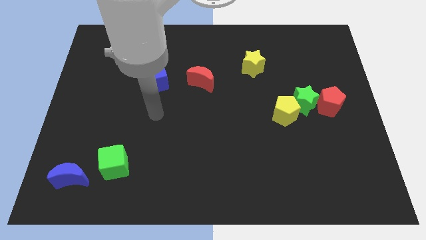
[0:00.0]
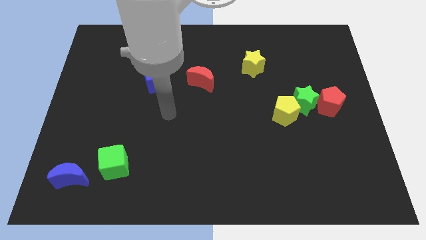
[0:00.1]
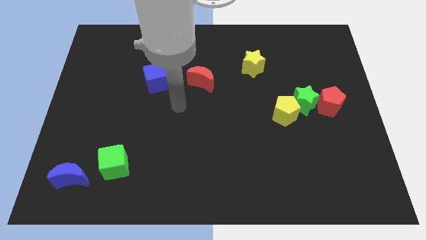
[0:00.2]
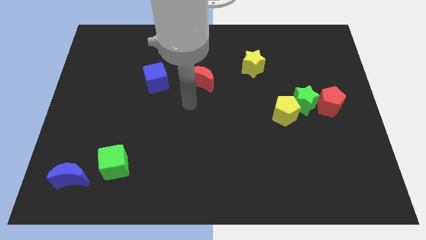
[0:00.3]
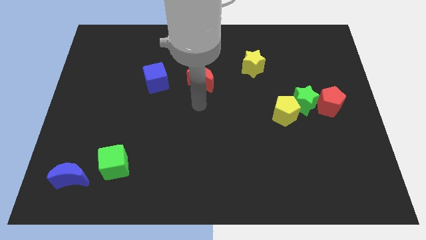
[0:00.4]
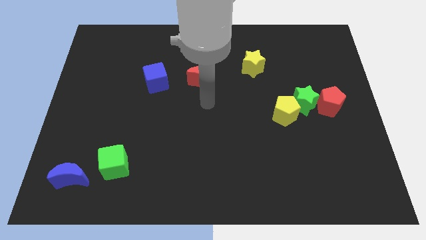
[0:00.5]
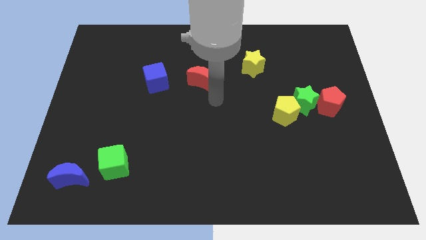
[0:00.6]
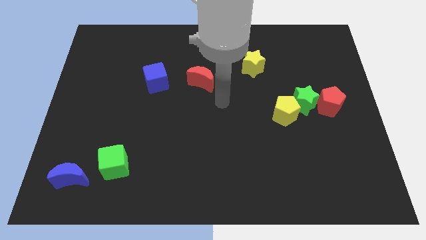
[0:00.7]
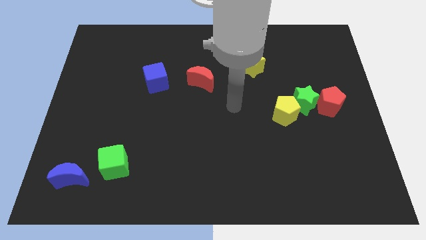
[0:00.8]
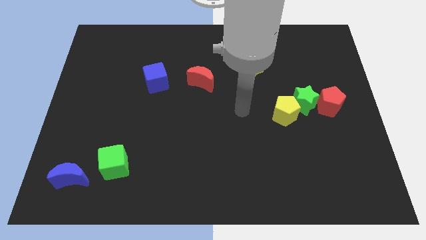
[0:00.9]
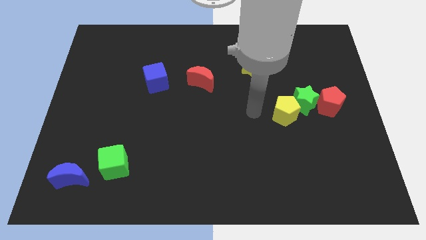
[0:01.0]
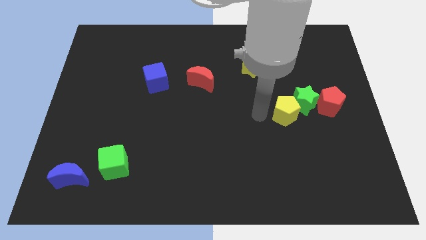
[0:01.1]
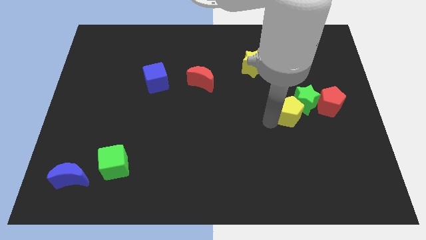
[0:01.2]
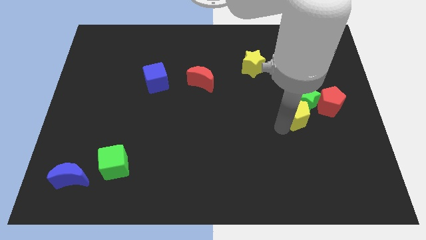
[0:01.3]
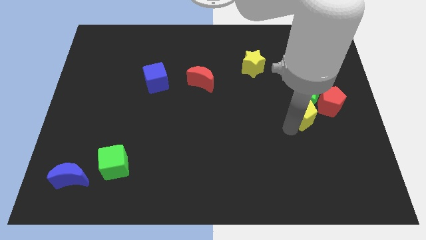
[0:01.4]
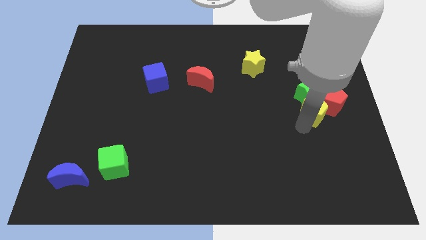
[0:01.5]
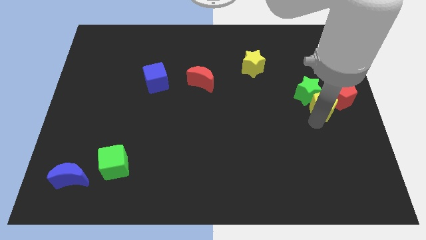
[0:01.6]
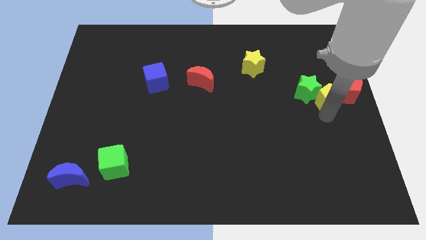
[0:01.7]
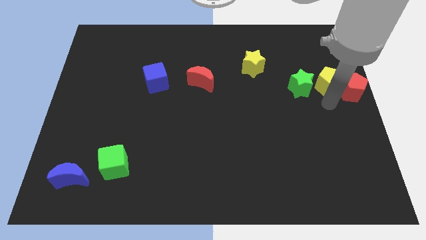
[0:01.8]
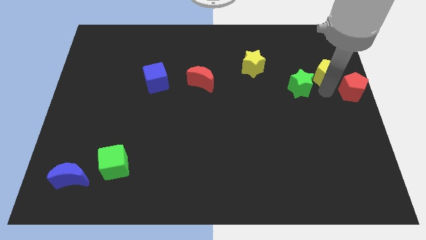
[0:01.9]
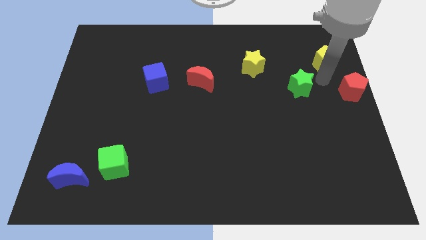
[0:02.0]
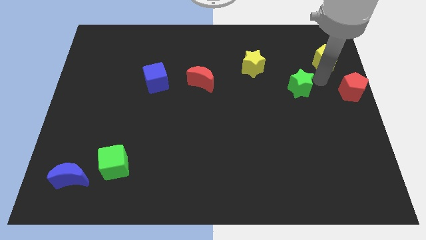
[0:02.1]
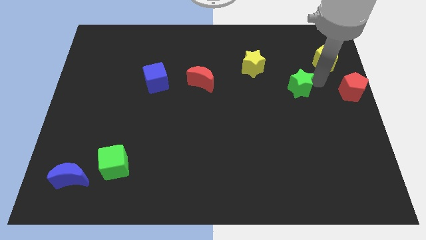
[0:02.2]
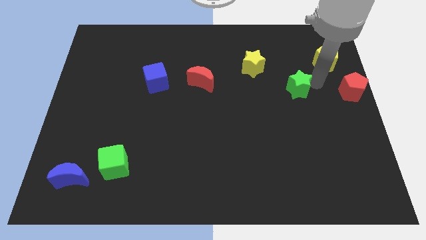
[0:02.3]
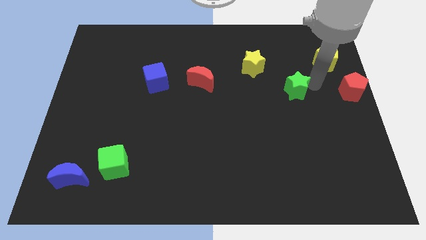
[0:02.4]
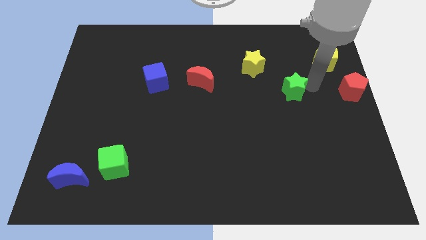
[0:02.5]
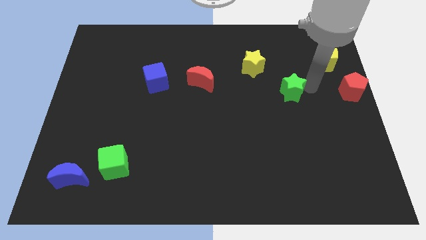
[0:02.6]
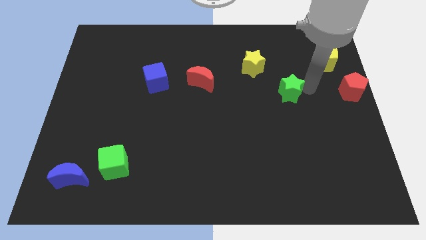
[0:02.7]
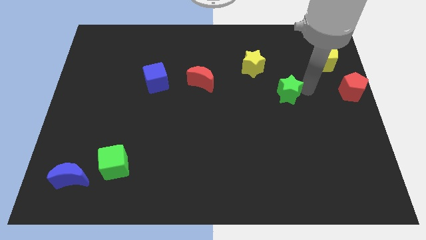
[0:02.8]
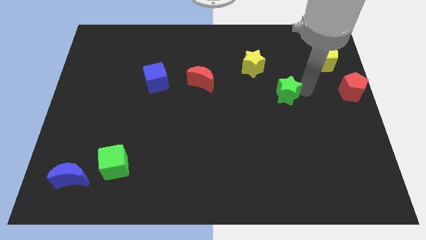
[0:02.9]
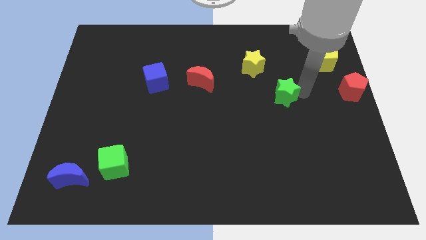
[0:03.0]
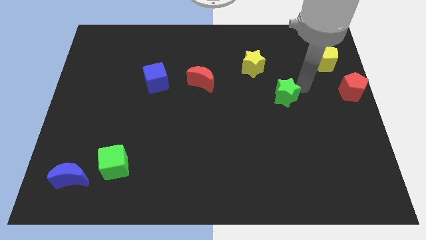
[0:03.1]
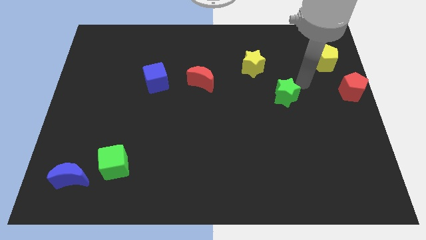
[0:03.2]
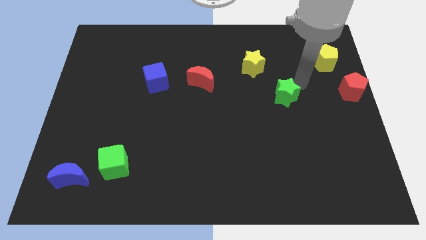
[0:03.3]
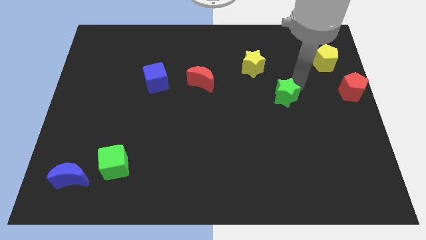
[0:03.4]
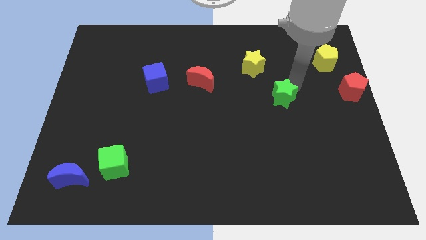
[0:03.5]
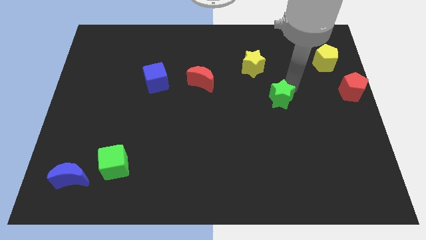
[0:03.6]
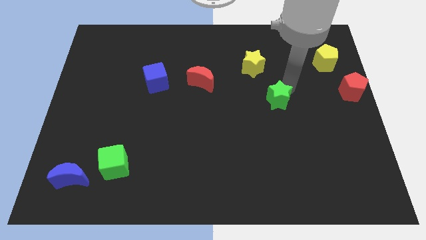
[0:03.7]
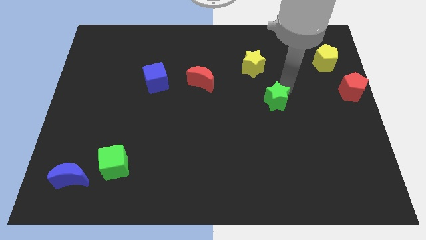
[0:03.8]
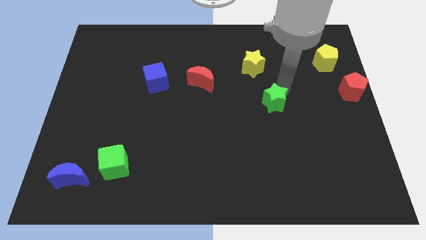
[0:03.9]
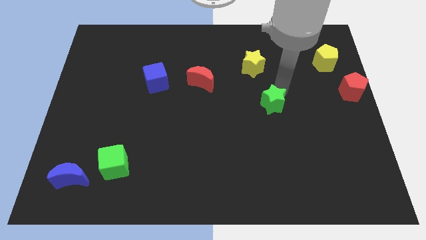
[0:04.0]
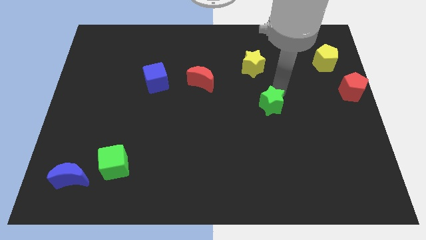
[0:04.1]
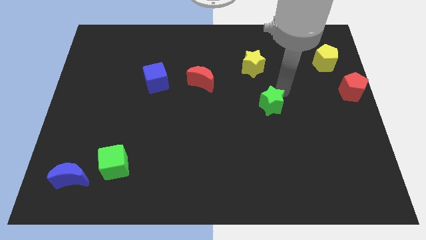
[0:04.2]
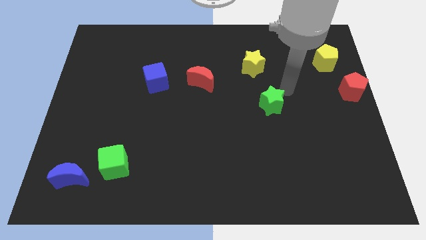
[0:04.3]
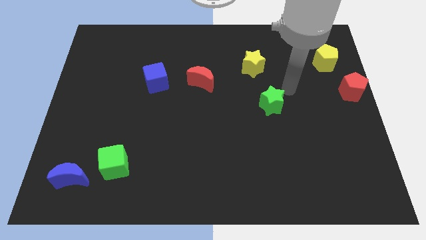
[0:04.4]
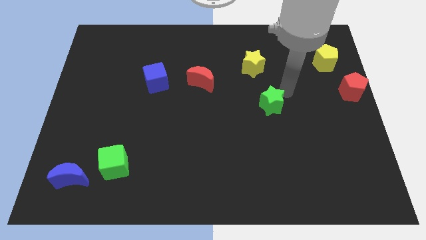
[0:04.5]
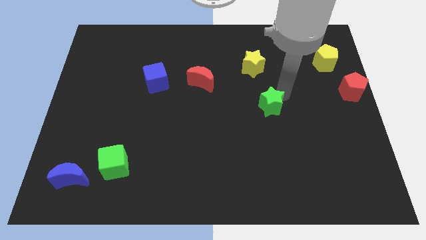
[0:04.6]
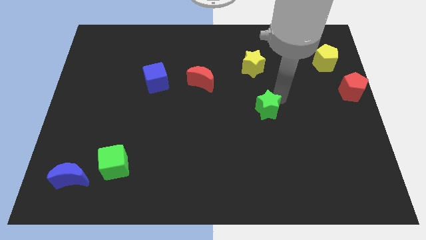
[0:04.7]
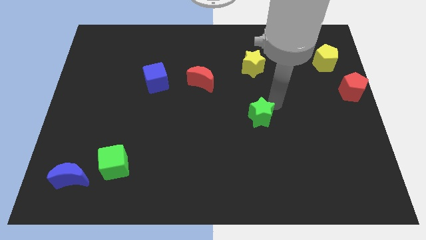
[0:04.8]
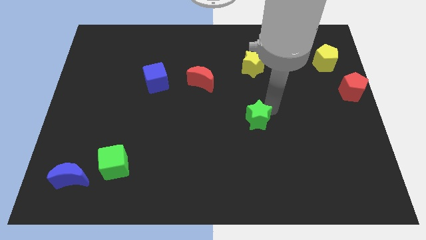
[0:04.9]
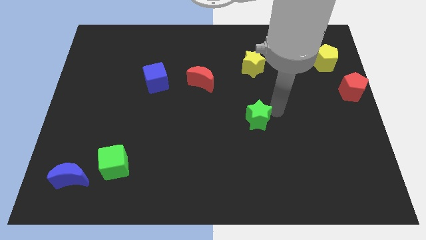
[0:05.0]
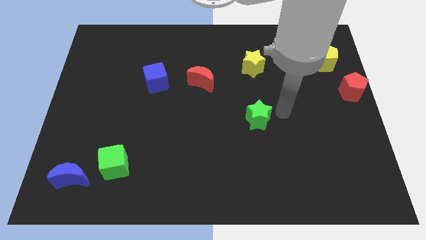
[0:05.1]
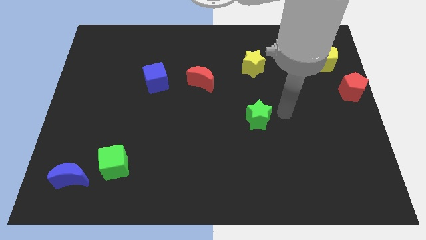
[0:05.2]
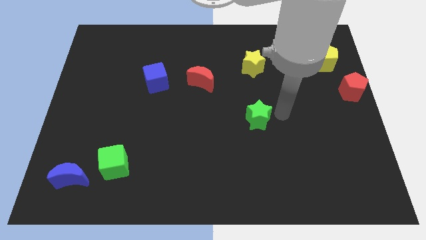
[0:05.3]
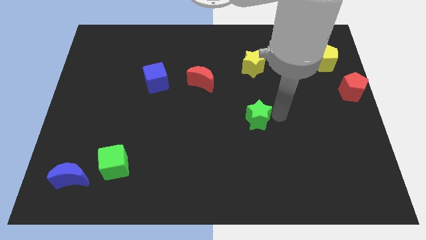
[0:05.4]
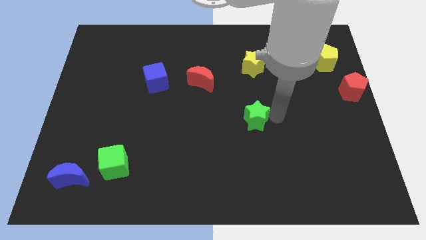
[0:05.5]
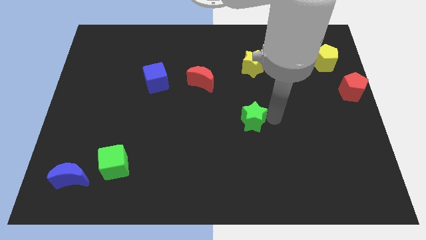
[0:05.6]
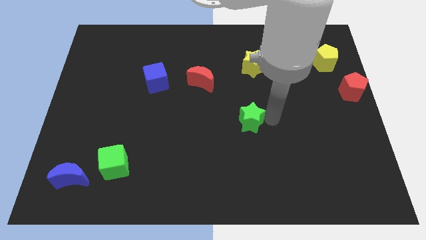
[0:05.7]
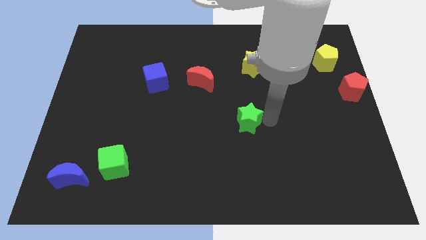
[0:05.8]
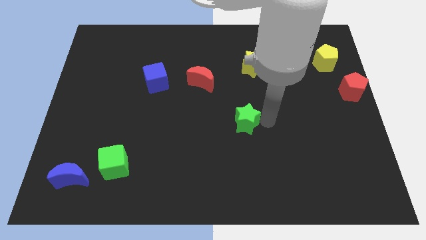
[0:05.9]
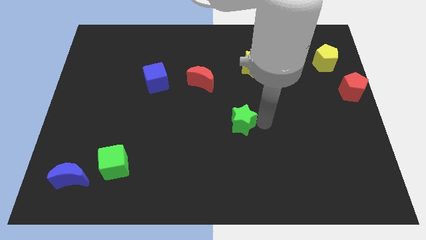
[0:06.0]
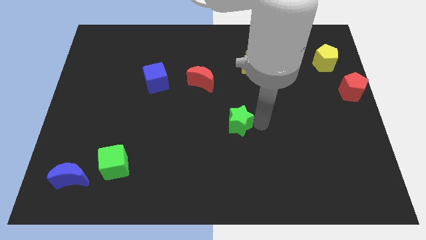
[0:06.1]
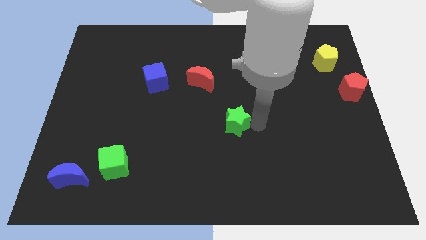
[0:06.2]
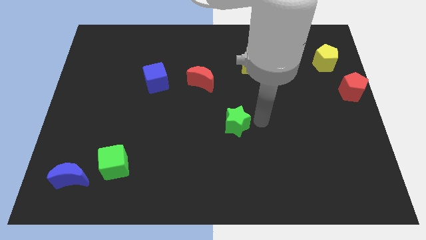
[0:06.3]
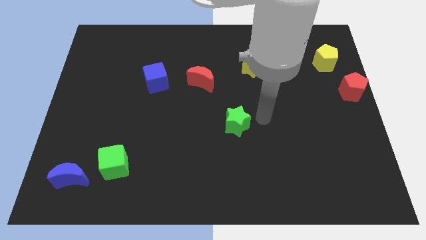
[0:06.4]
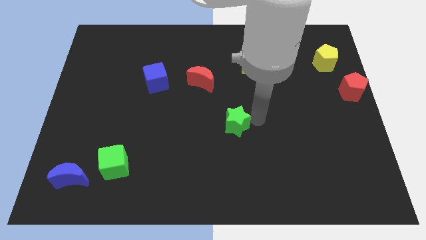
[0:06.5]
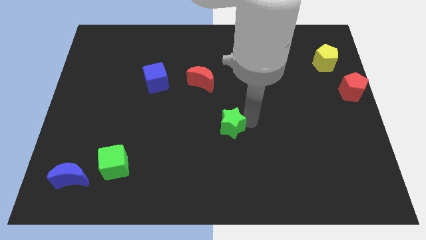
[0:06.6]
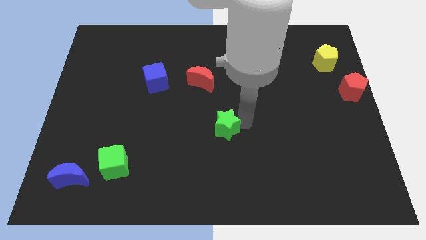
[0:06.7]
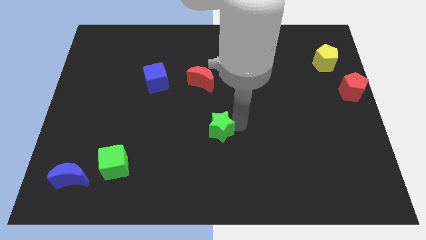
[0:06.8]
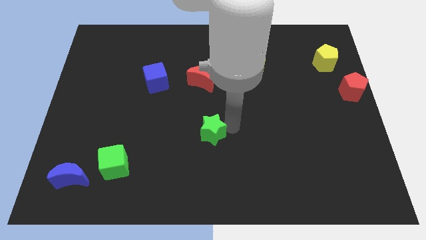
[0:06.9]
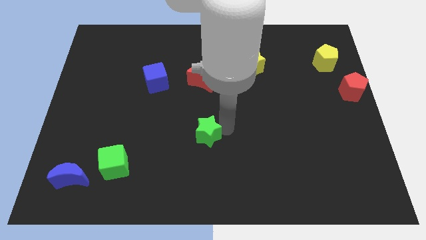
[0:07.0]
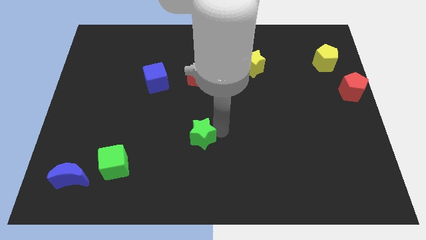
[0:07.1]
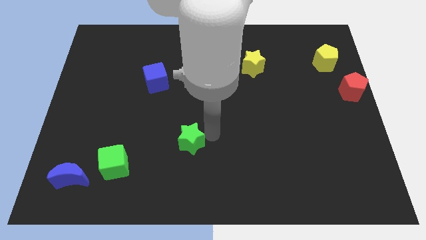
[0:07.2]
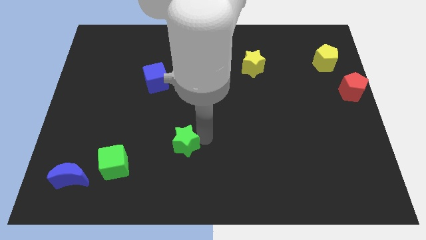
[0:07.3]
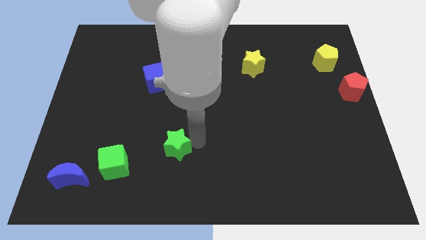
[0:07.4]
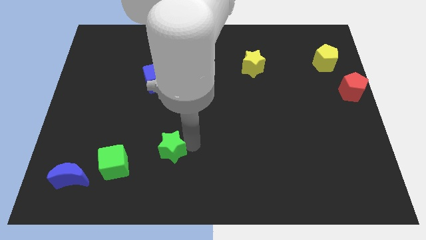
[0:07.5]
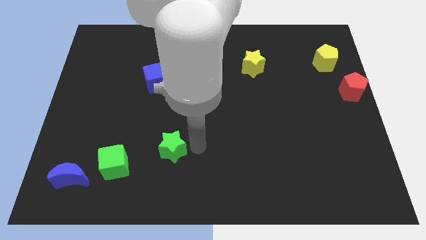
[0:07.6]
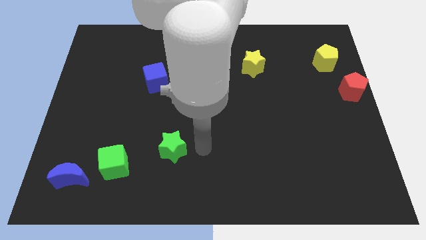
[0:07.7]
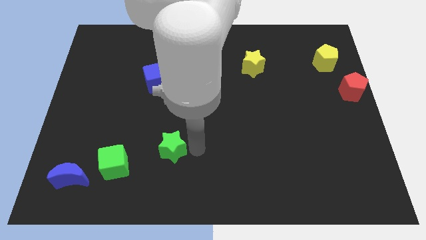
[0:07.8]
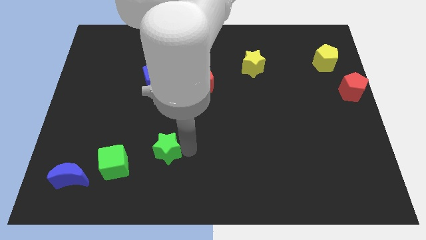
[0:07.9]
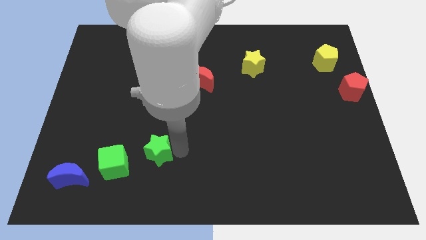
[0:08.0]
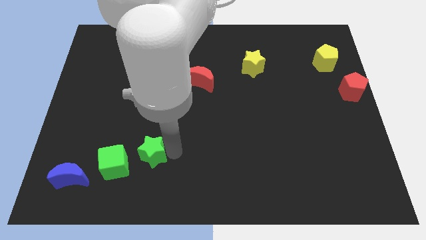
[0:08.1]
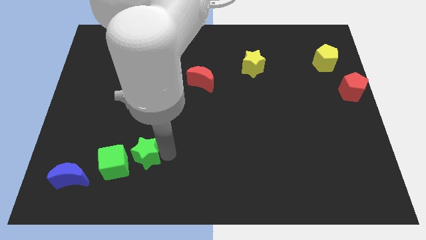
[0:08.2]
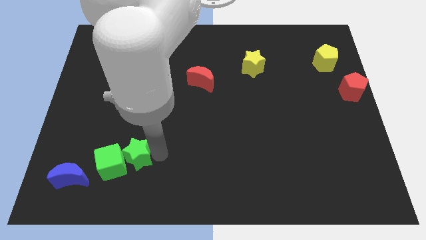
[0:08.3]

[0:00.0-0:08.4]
put the green star to the green cube
